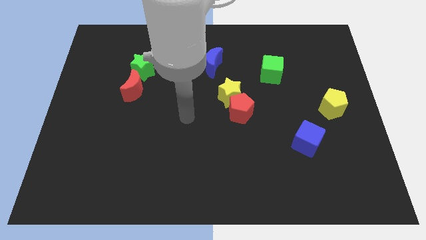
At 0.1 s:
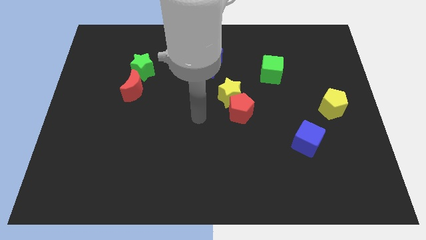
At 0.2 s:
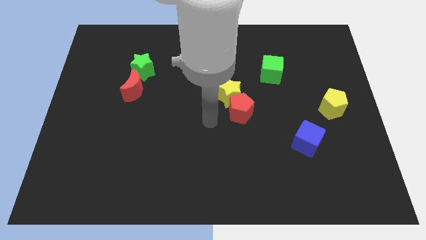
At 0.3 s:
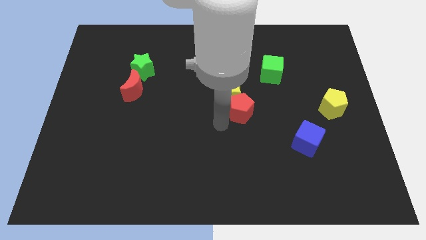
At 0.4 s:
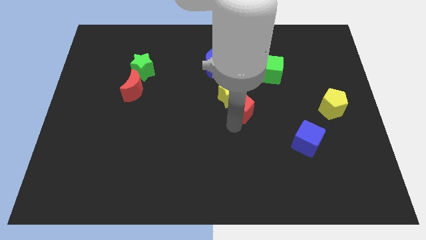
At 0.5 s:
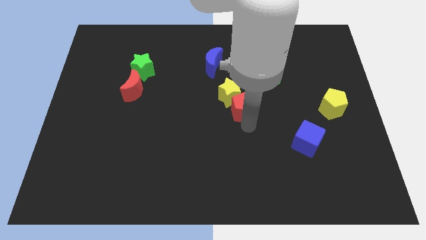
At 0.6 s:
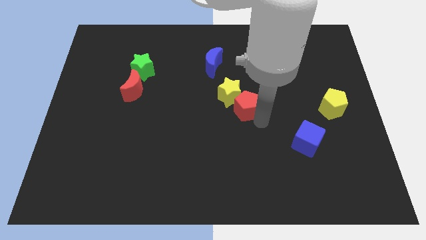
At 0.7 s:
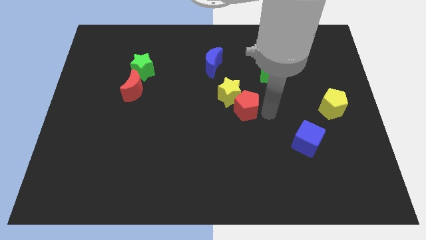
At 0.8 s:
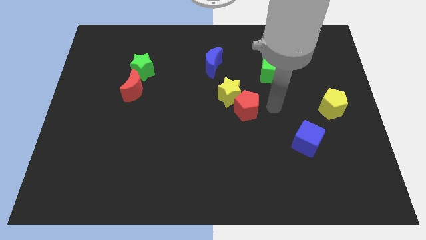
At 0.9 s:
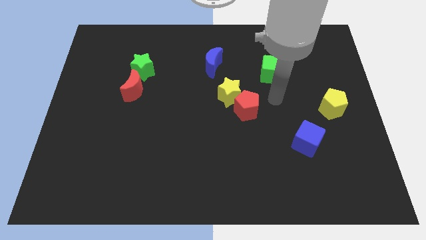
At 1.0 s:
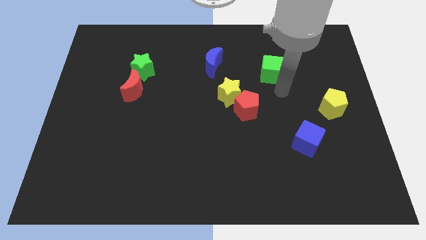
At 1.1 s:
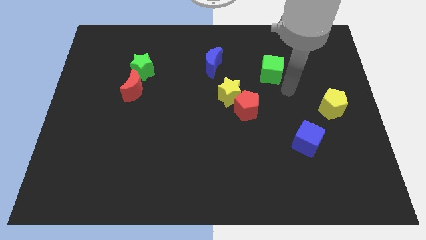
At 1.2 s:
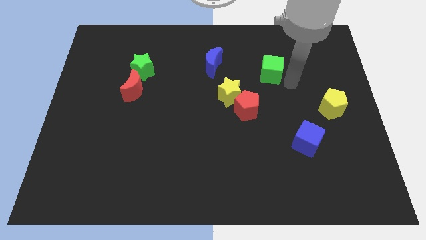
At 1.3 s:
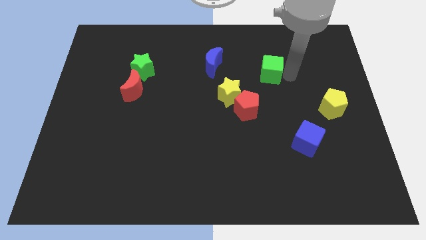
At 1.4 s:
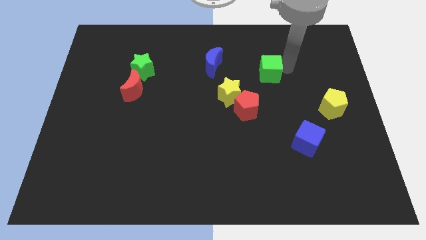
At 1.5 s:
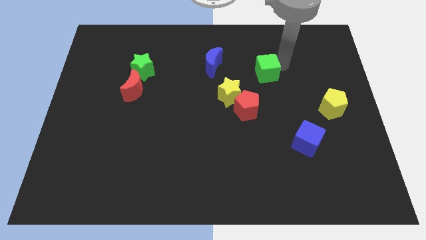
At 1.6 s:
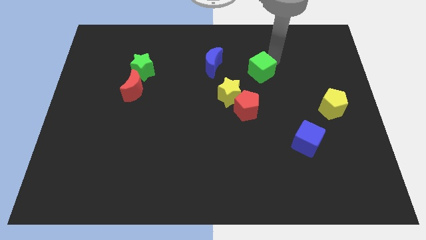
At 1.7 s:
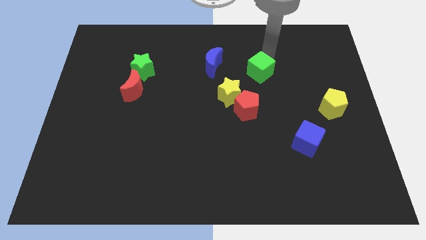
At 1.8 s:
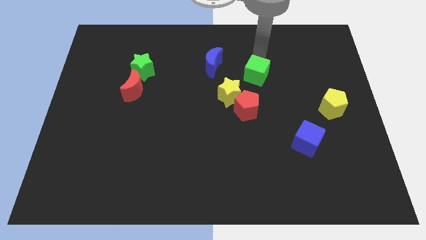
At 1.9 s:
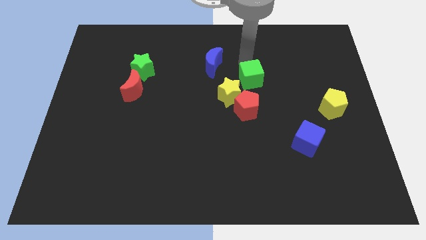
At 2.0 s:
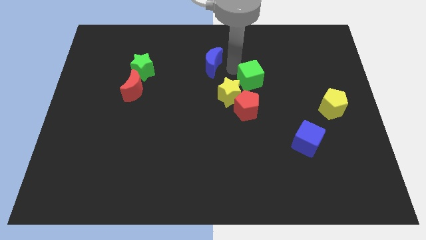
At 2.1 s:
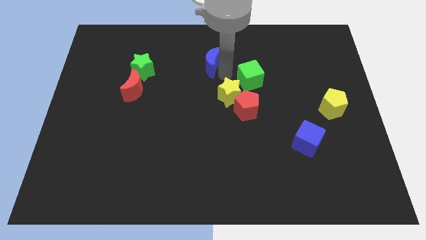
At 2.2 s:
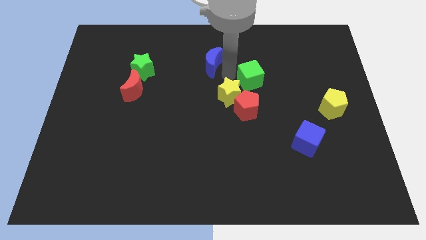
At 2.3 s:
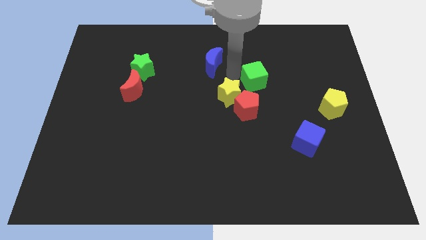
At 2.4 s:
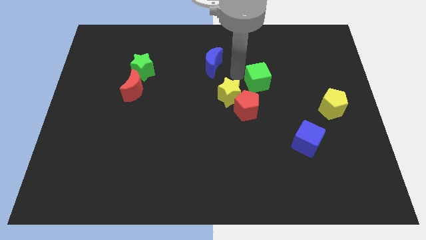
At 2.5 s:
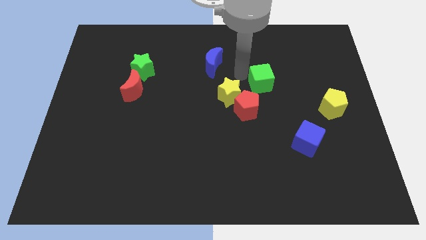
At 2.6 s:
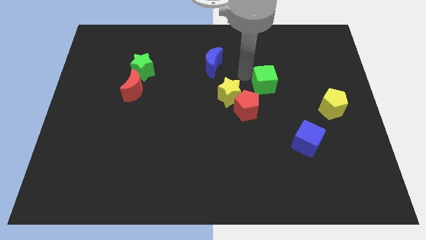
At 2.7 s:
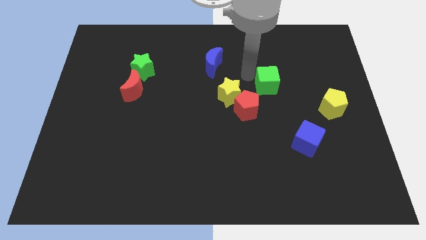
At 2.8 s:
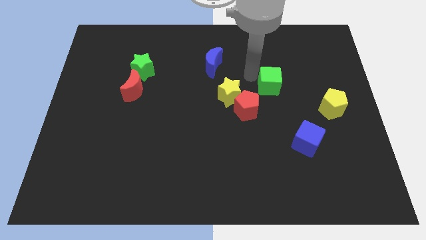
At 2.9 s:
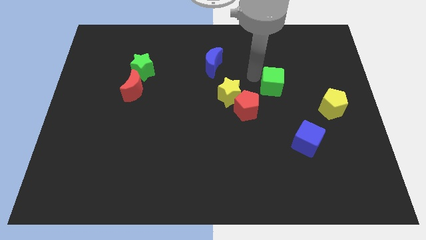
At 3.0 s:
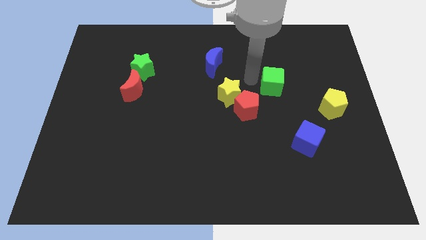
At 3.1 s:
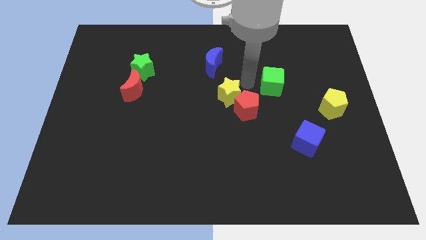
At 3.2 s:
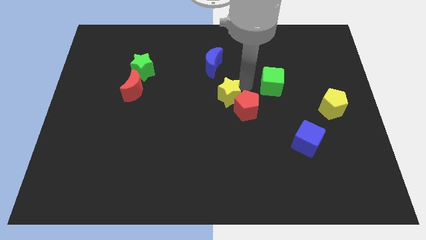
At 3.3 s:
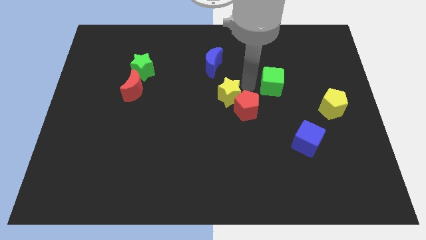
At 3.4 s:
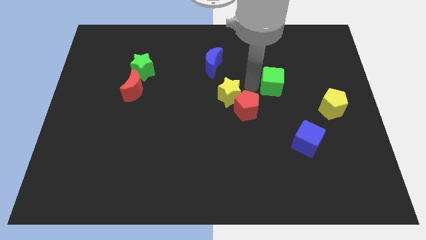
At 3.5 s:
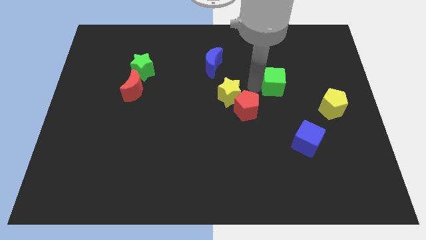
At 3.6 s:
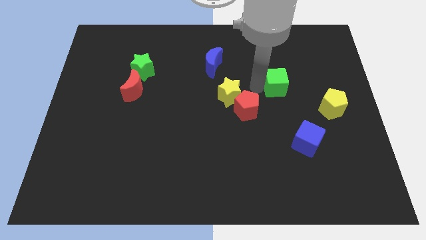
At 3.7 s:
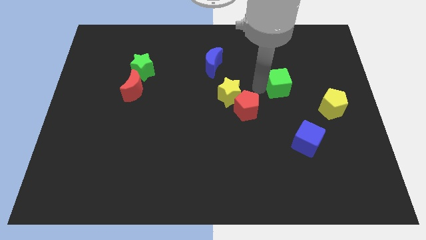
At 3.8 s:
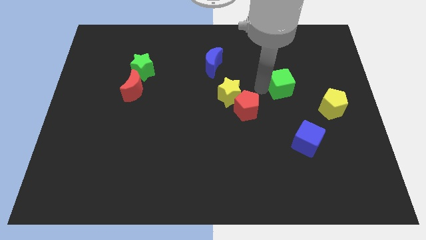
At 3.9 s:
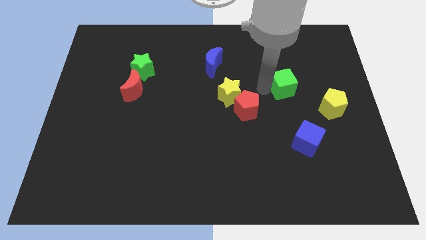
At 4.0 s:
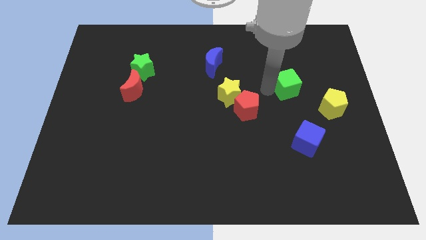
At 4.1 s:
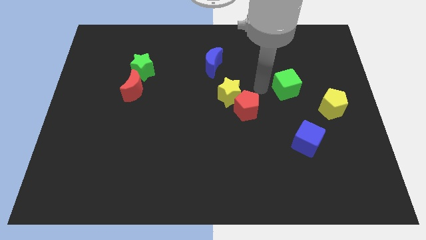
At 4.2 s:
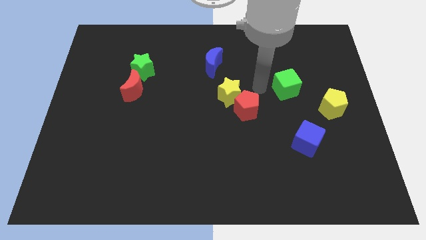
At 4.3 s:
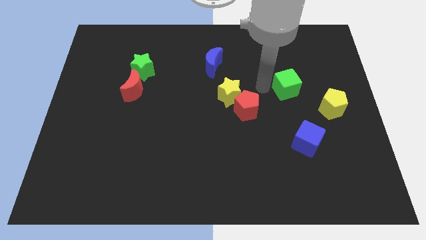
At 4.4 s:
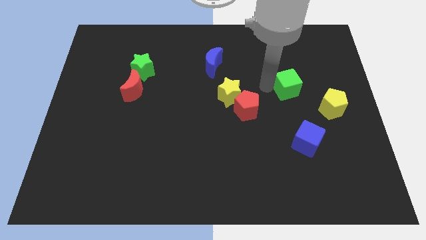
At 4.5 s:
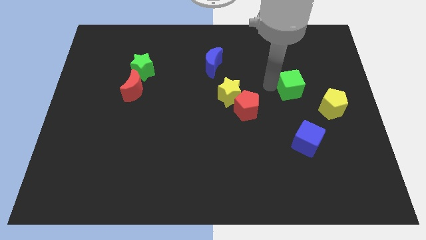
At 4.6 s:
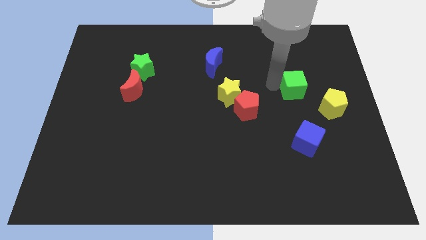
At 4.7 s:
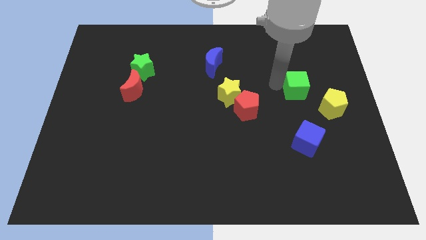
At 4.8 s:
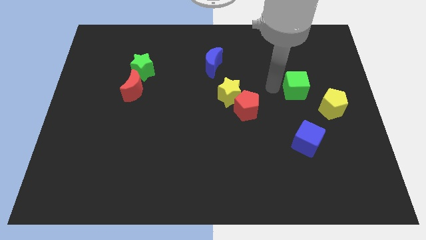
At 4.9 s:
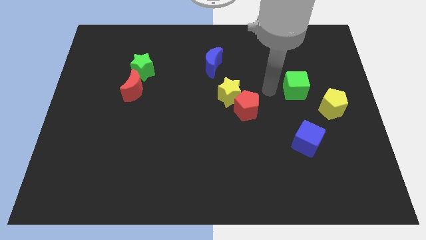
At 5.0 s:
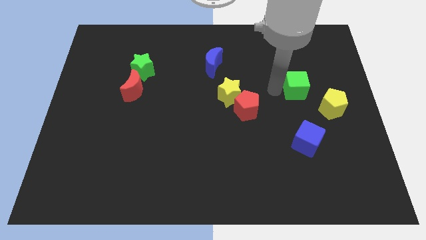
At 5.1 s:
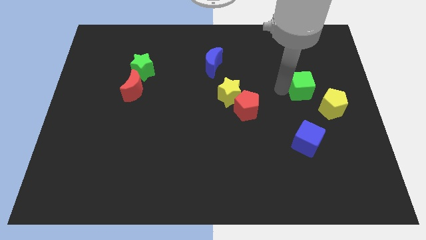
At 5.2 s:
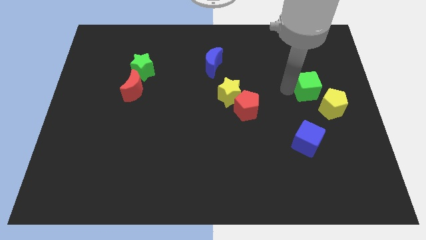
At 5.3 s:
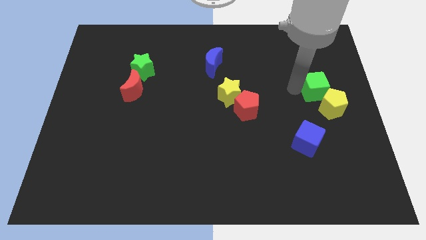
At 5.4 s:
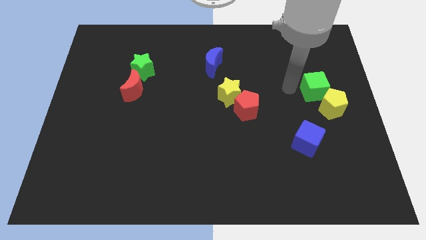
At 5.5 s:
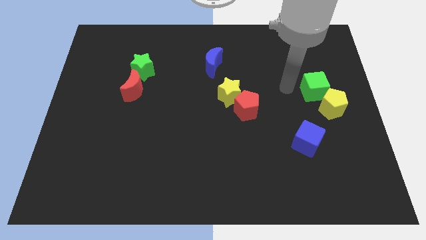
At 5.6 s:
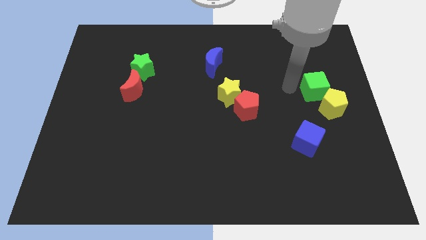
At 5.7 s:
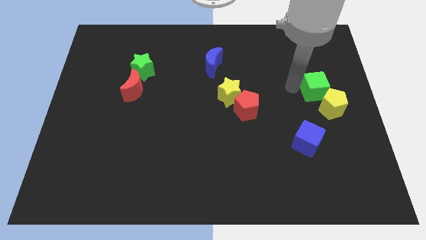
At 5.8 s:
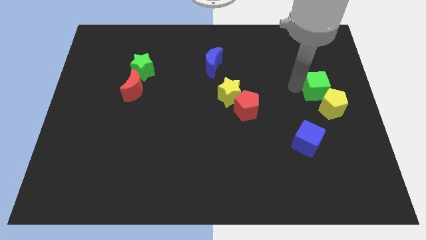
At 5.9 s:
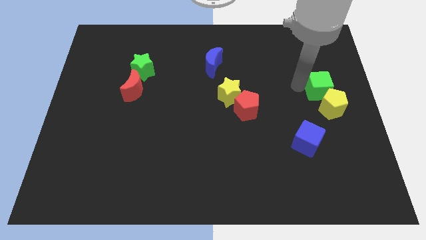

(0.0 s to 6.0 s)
put the green cube to the right side

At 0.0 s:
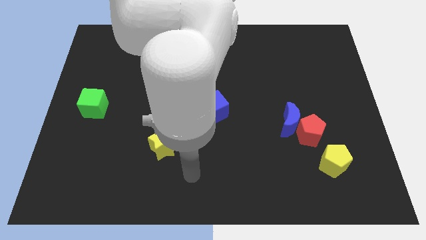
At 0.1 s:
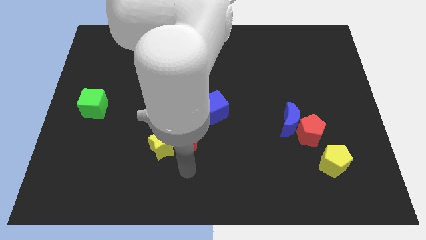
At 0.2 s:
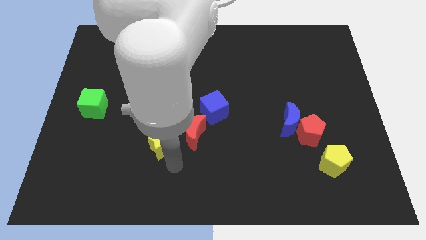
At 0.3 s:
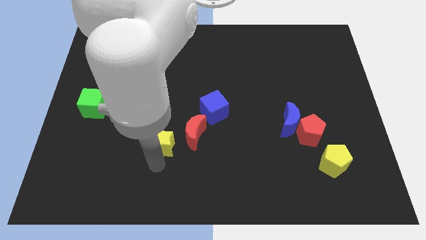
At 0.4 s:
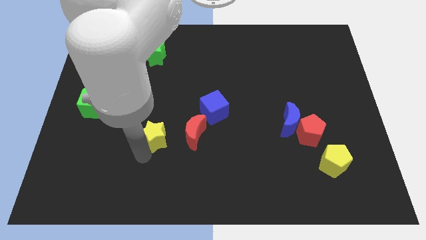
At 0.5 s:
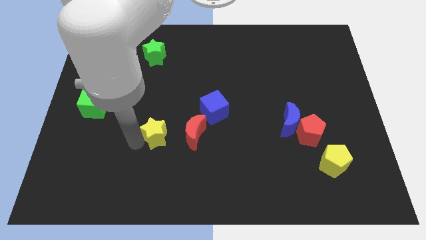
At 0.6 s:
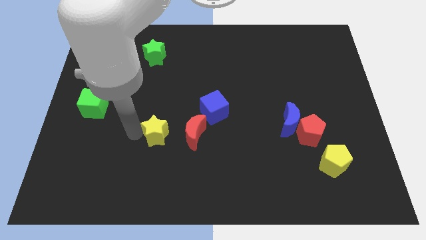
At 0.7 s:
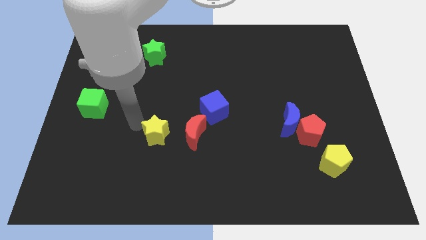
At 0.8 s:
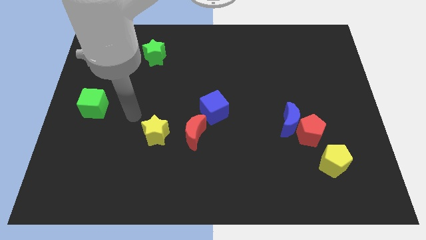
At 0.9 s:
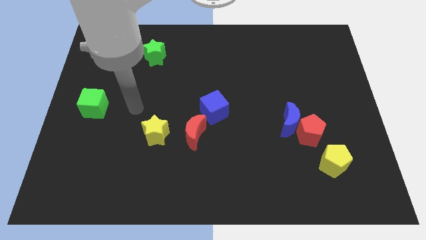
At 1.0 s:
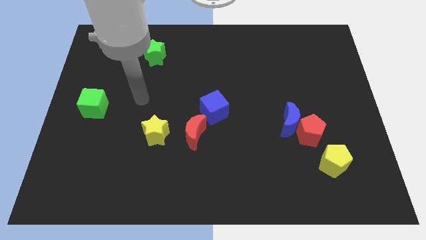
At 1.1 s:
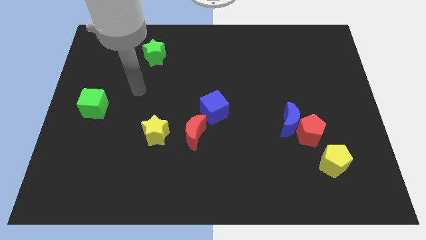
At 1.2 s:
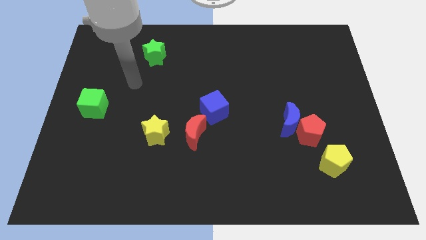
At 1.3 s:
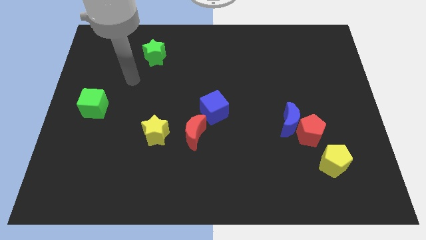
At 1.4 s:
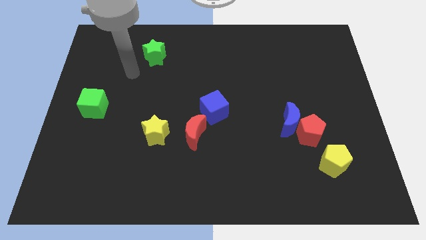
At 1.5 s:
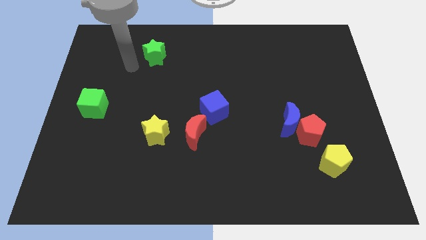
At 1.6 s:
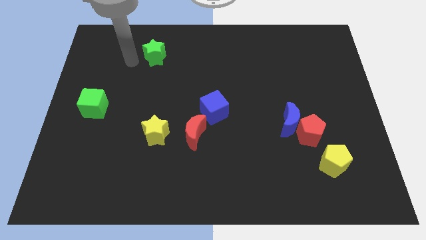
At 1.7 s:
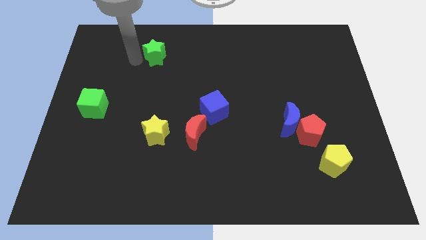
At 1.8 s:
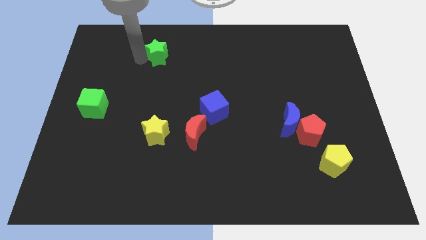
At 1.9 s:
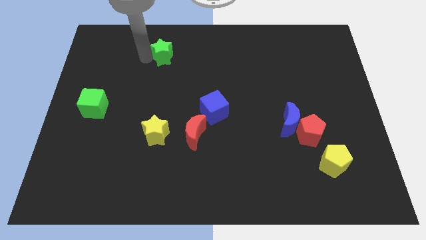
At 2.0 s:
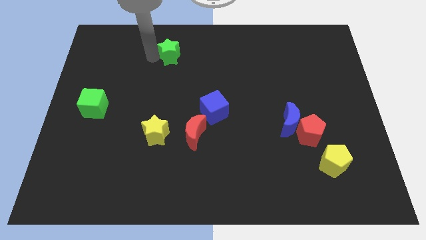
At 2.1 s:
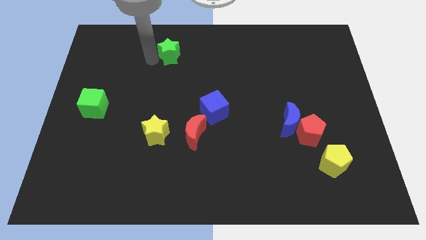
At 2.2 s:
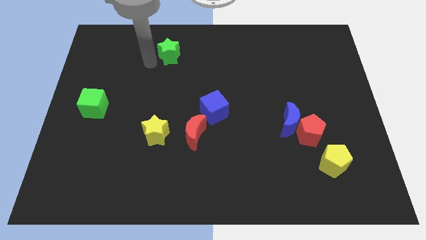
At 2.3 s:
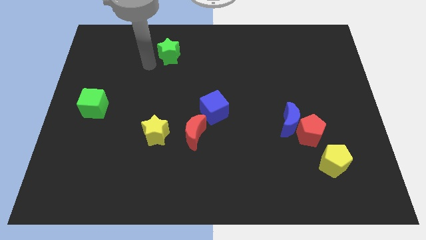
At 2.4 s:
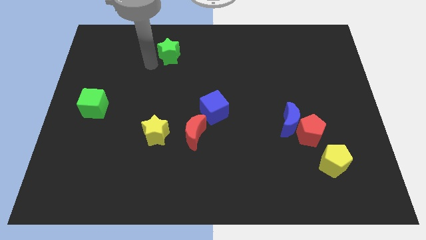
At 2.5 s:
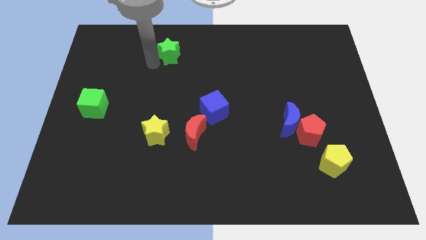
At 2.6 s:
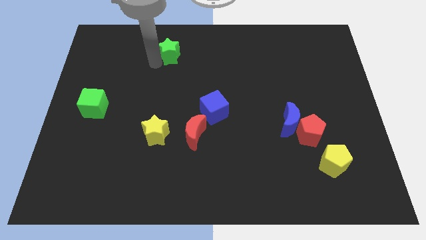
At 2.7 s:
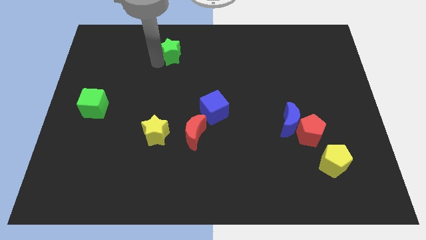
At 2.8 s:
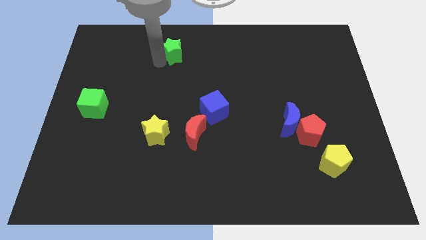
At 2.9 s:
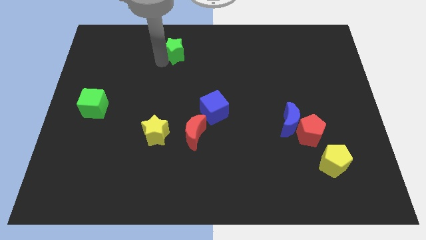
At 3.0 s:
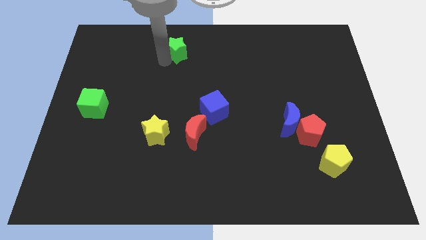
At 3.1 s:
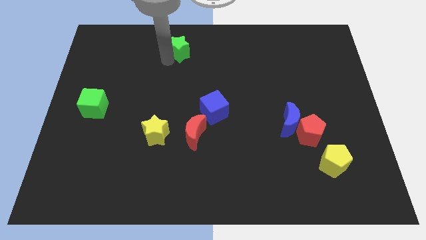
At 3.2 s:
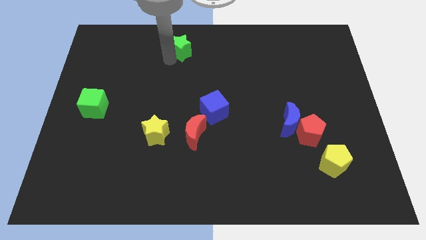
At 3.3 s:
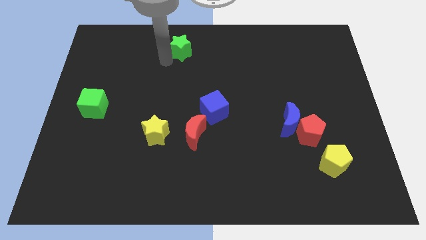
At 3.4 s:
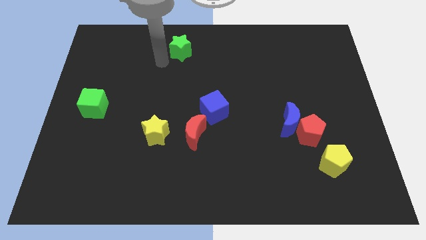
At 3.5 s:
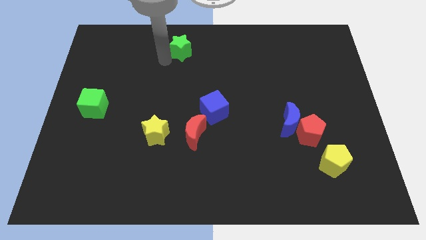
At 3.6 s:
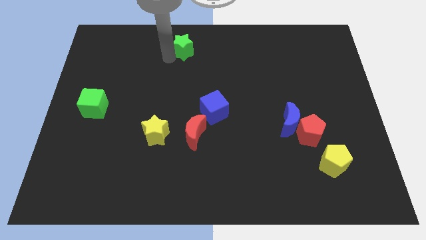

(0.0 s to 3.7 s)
push the green star to the towards your base
